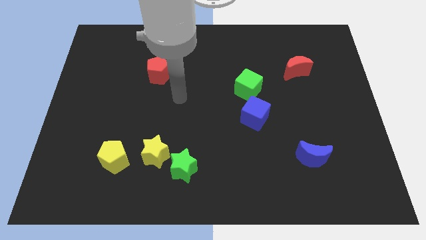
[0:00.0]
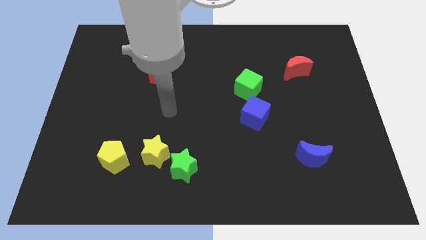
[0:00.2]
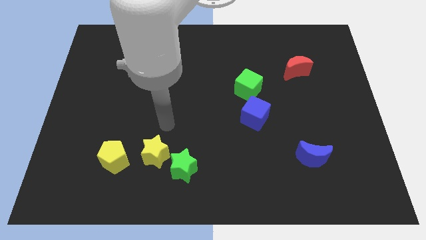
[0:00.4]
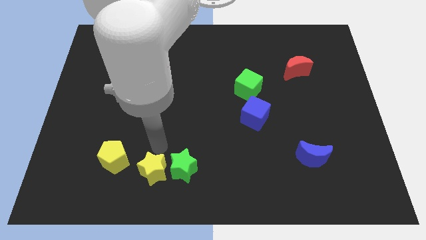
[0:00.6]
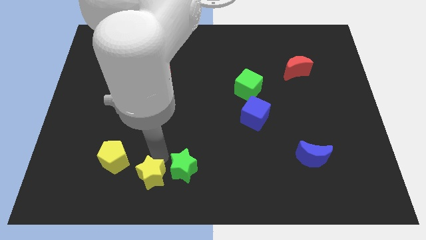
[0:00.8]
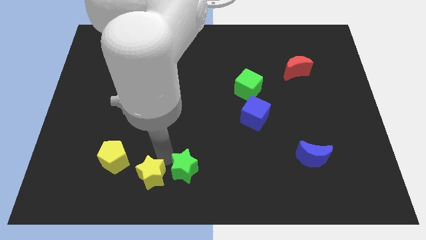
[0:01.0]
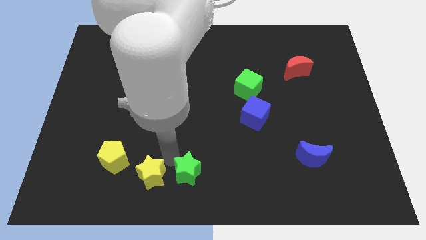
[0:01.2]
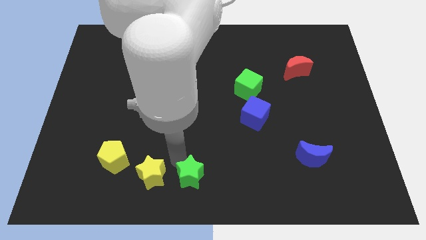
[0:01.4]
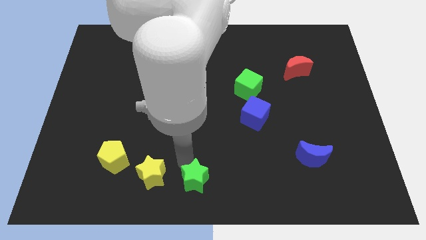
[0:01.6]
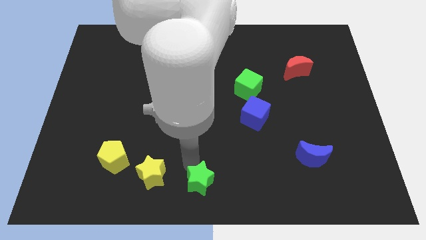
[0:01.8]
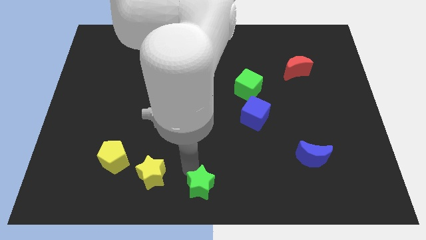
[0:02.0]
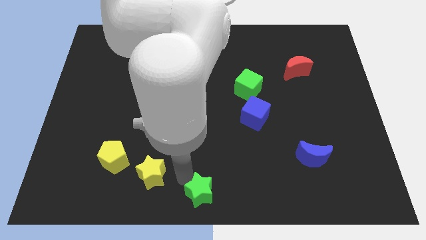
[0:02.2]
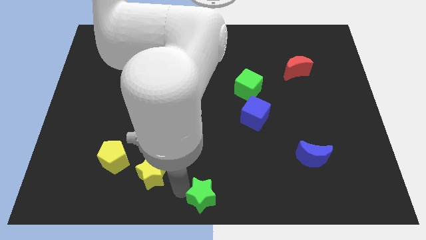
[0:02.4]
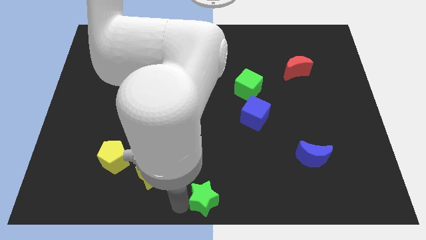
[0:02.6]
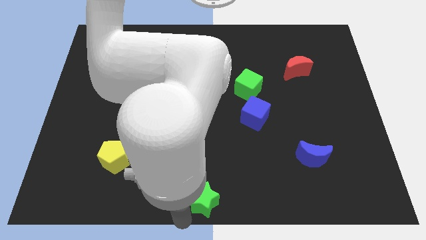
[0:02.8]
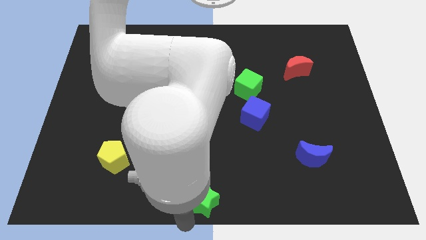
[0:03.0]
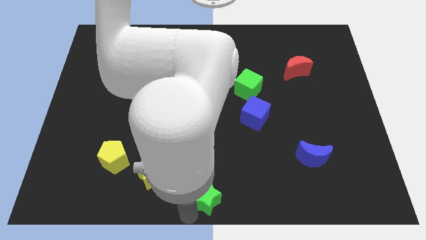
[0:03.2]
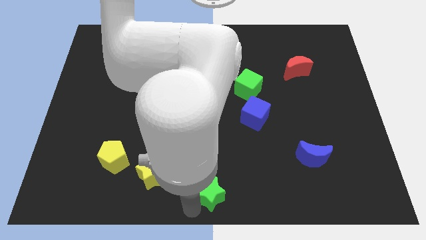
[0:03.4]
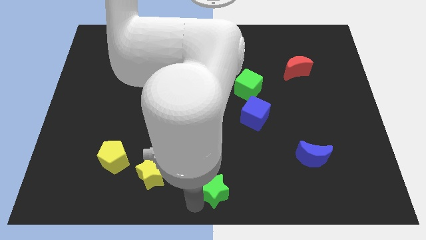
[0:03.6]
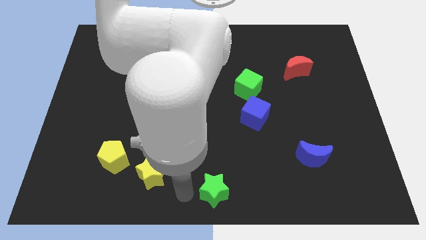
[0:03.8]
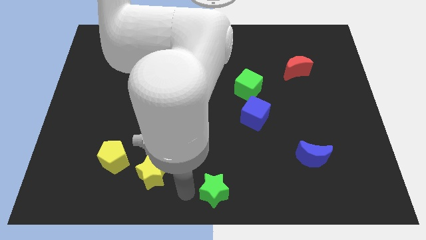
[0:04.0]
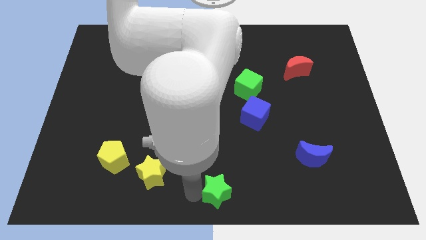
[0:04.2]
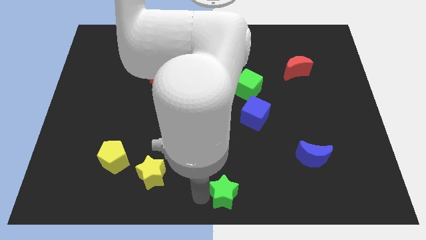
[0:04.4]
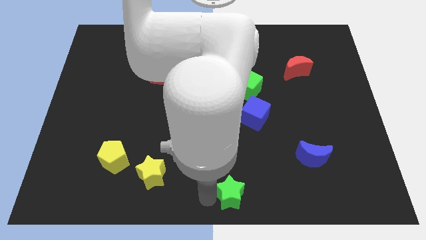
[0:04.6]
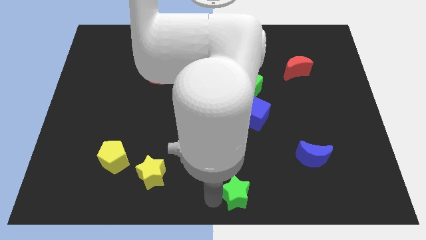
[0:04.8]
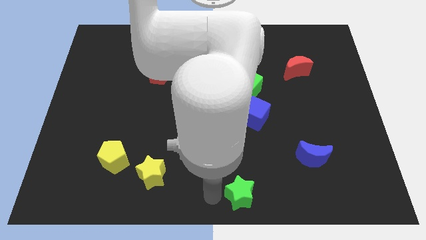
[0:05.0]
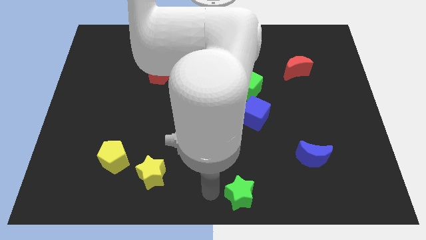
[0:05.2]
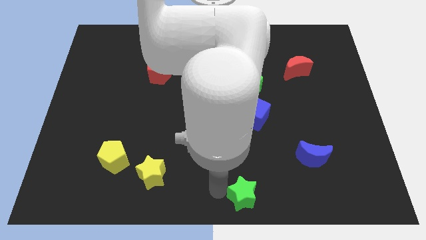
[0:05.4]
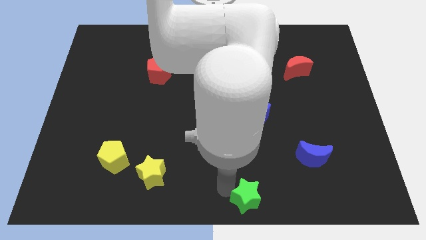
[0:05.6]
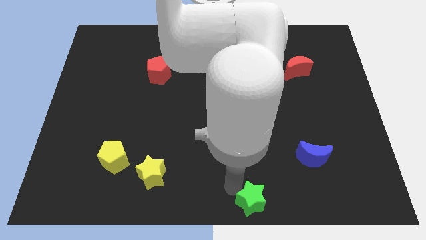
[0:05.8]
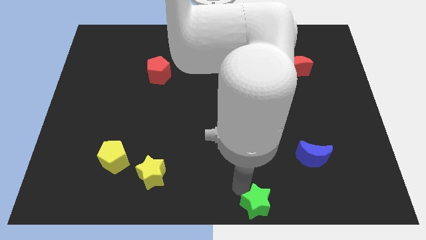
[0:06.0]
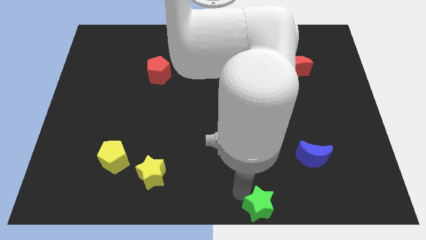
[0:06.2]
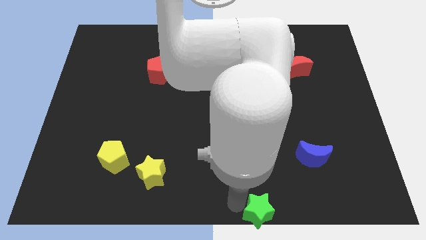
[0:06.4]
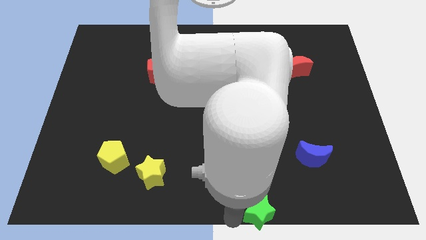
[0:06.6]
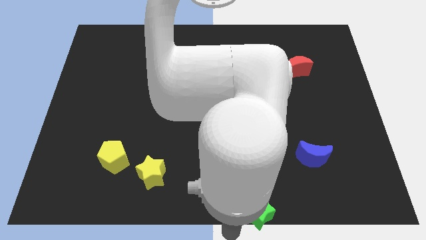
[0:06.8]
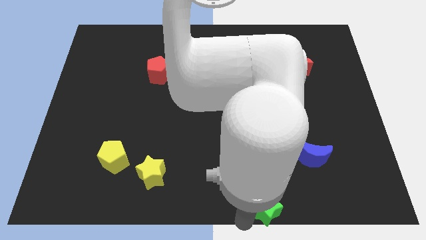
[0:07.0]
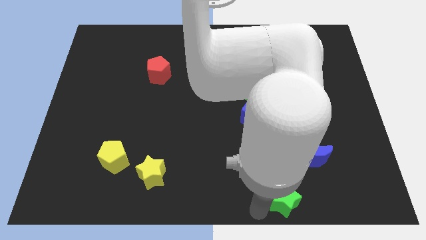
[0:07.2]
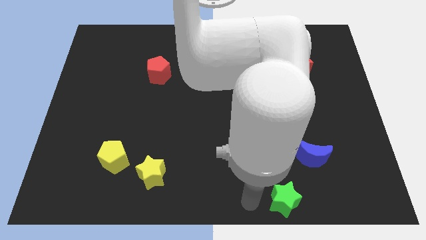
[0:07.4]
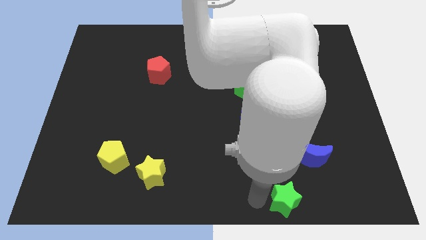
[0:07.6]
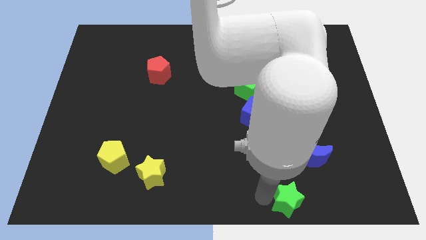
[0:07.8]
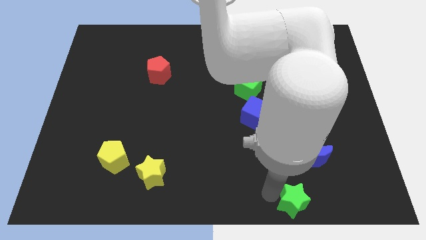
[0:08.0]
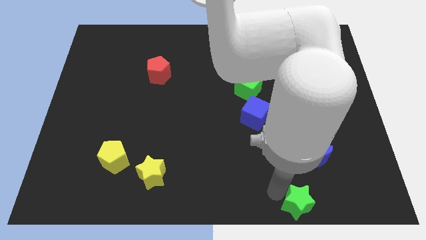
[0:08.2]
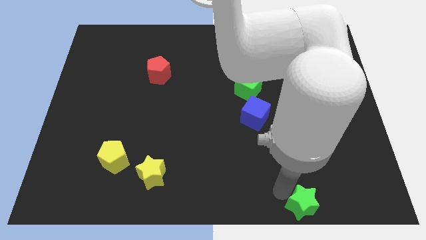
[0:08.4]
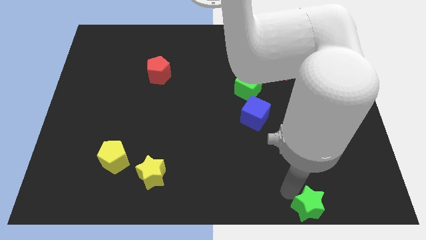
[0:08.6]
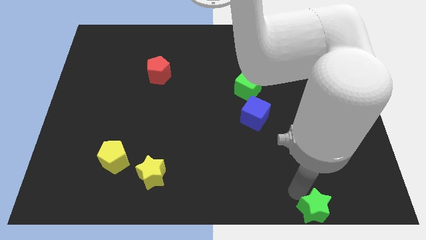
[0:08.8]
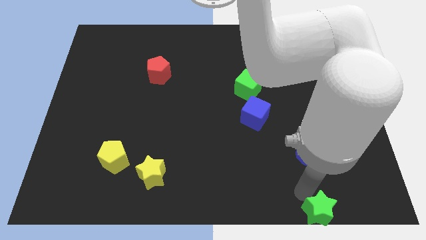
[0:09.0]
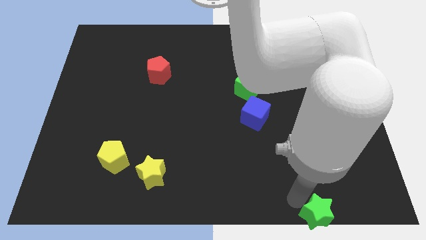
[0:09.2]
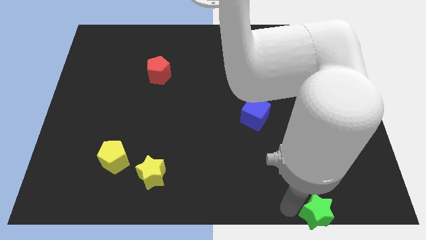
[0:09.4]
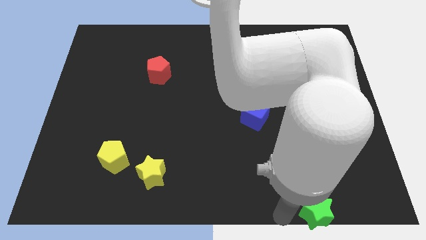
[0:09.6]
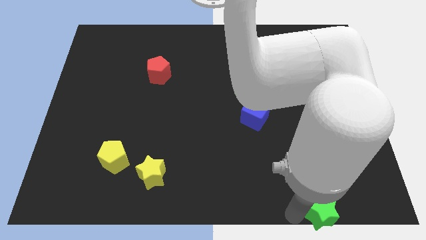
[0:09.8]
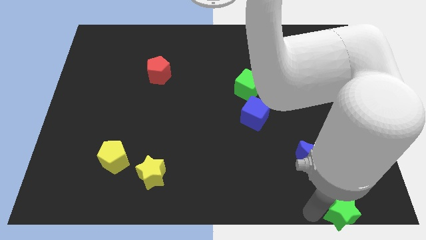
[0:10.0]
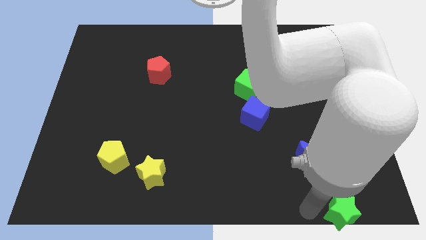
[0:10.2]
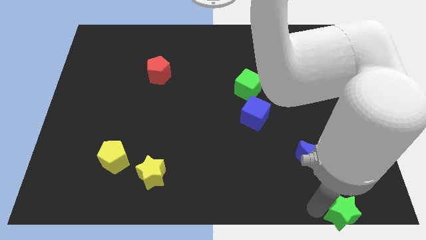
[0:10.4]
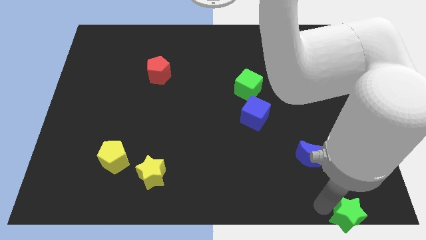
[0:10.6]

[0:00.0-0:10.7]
slide the green star to the bottom right corner
